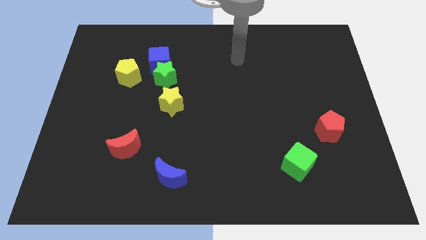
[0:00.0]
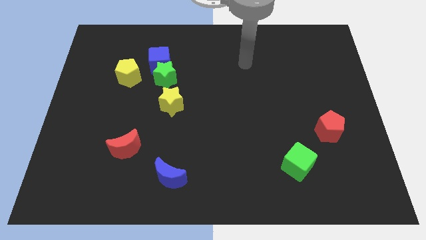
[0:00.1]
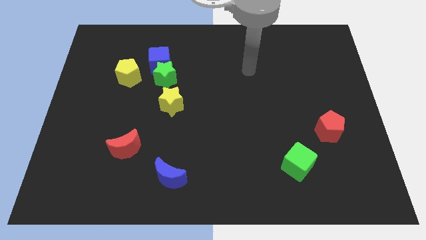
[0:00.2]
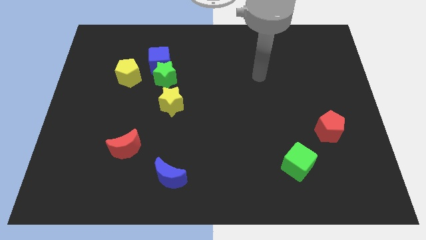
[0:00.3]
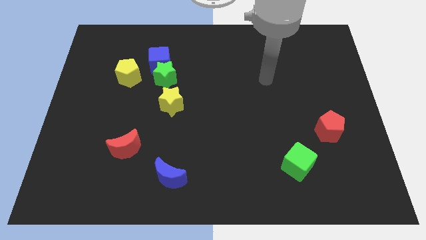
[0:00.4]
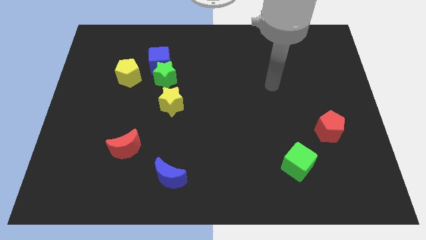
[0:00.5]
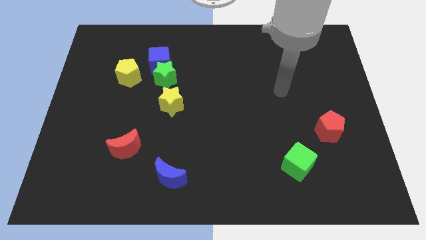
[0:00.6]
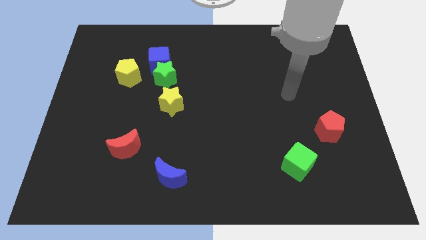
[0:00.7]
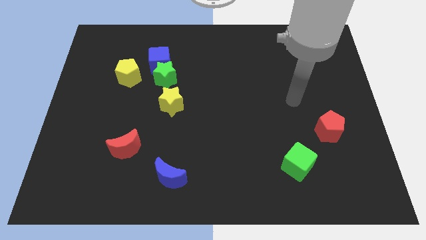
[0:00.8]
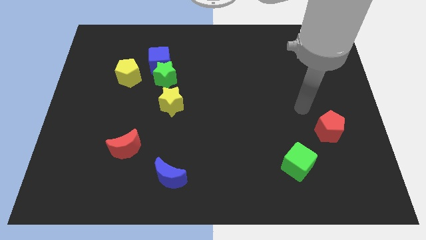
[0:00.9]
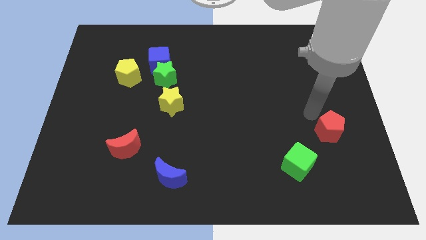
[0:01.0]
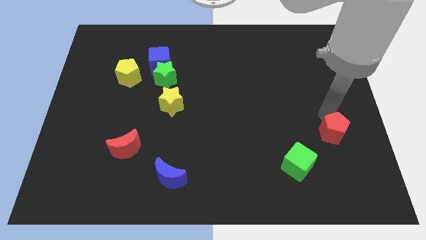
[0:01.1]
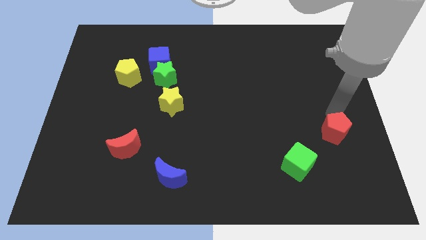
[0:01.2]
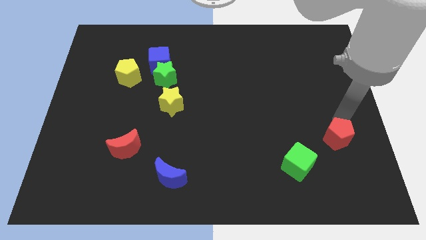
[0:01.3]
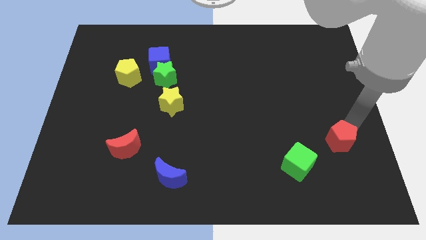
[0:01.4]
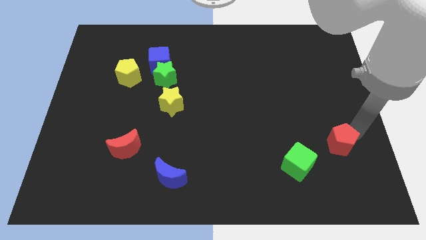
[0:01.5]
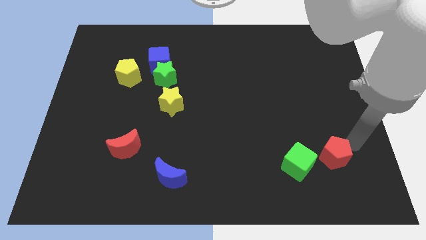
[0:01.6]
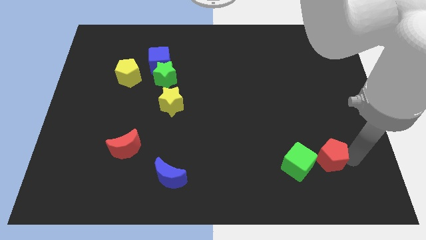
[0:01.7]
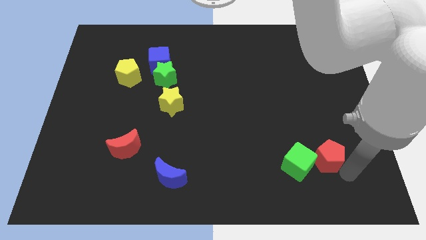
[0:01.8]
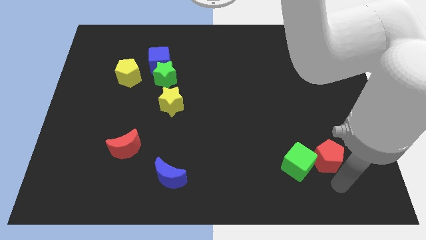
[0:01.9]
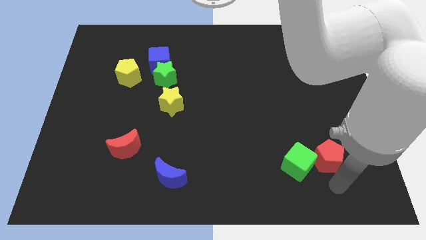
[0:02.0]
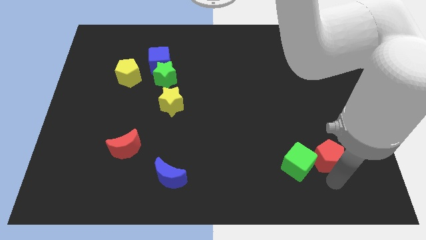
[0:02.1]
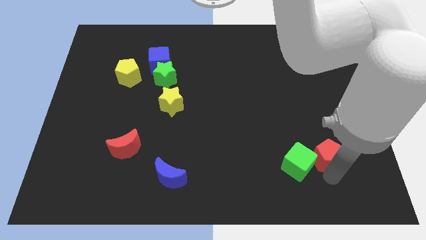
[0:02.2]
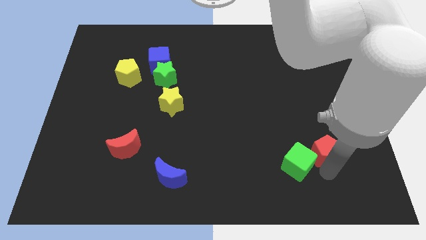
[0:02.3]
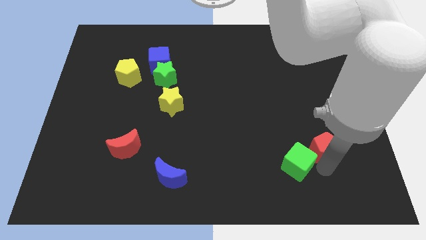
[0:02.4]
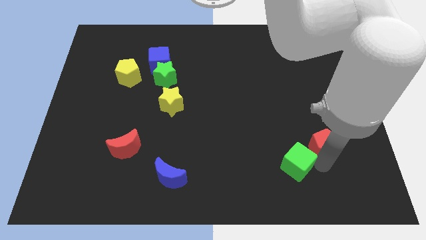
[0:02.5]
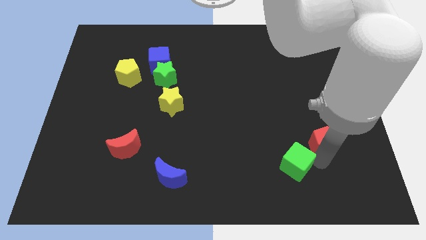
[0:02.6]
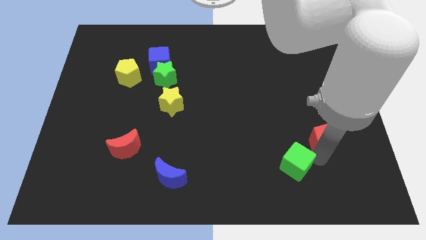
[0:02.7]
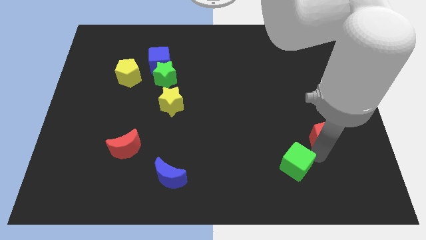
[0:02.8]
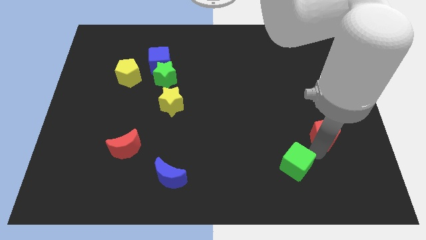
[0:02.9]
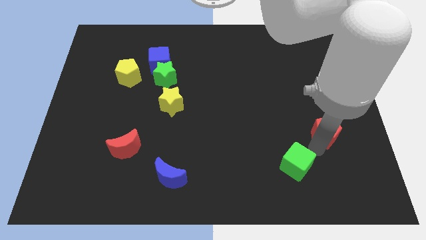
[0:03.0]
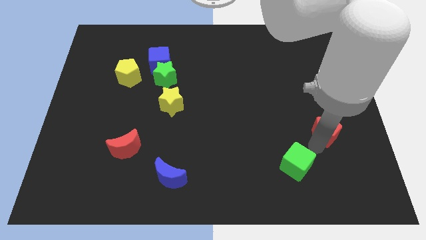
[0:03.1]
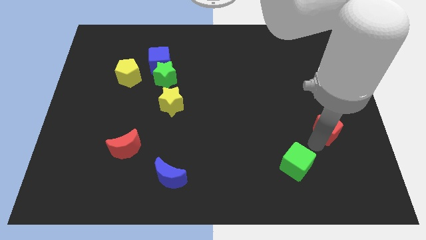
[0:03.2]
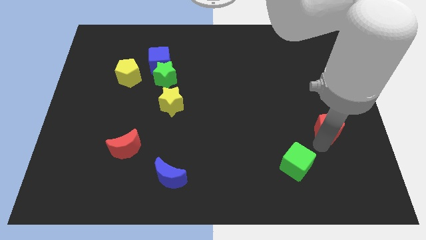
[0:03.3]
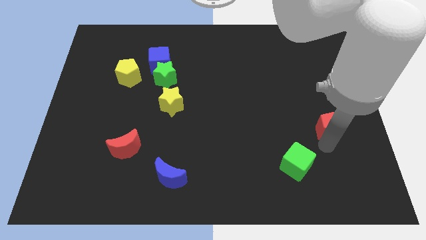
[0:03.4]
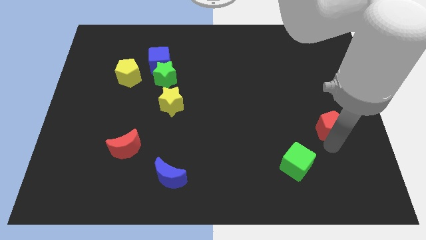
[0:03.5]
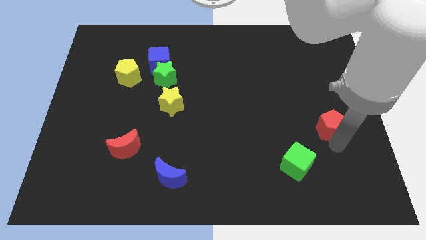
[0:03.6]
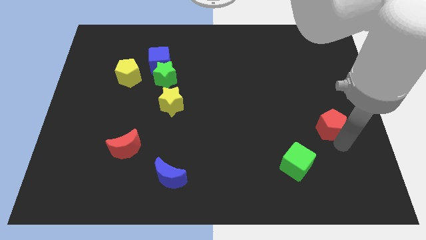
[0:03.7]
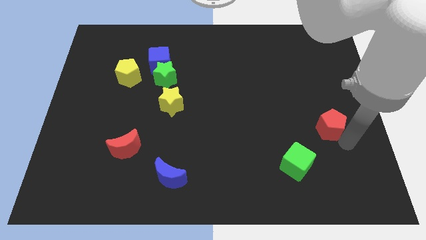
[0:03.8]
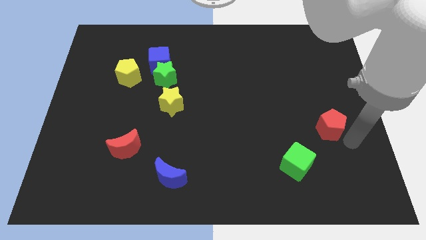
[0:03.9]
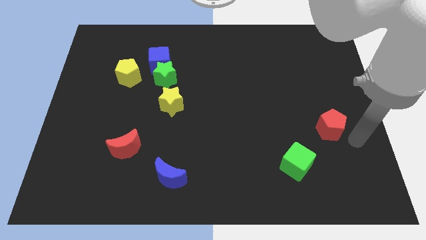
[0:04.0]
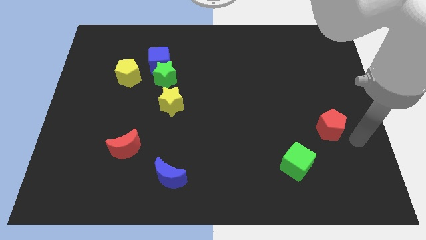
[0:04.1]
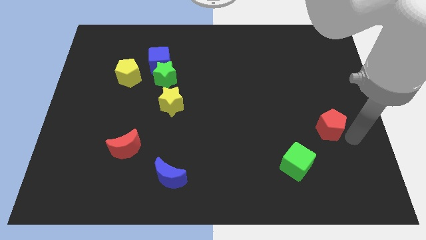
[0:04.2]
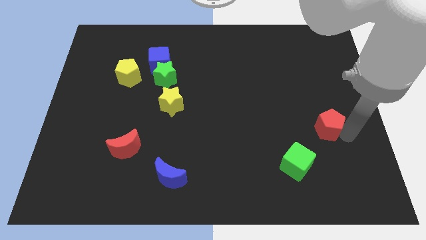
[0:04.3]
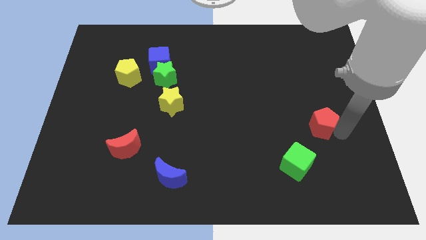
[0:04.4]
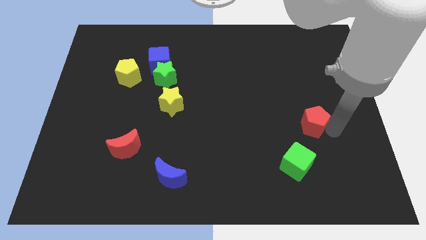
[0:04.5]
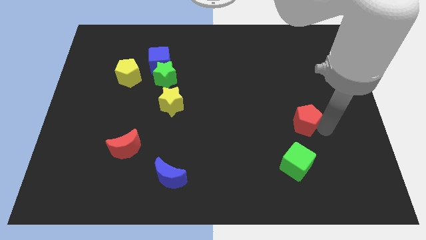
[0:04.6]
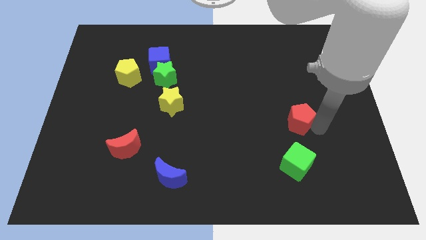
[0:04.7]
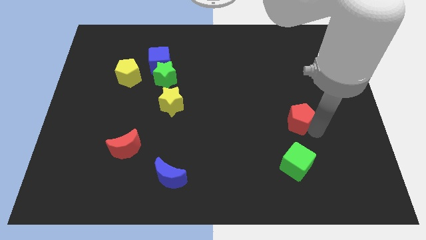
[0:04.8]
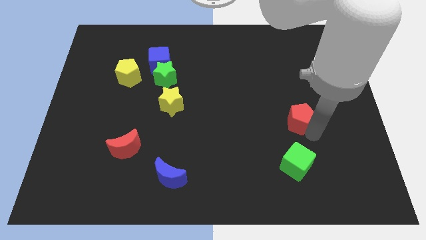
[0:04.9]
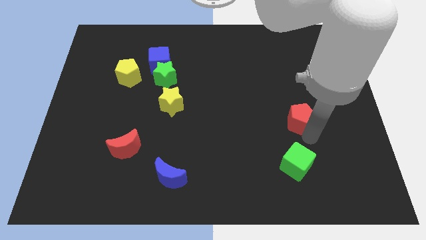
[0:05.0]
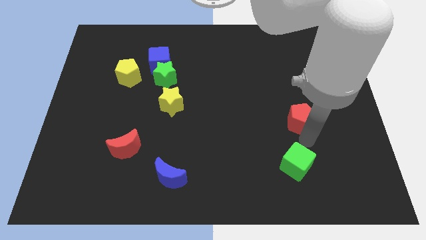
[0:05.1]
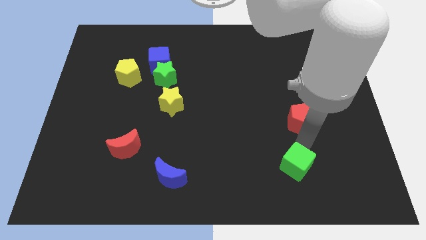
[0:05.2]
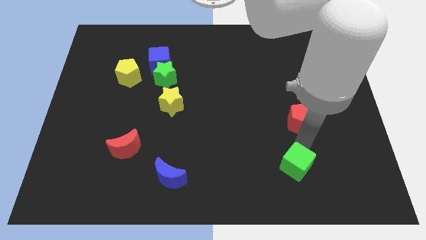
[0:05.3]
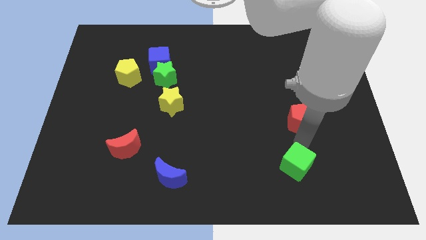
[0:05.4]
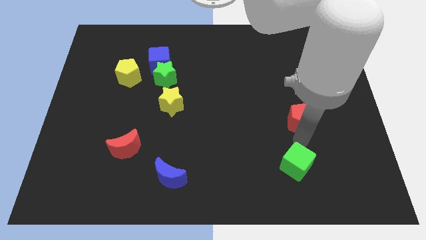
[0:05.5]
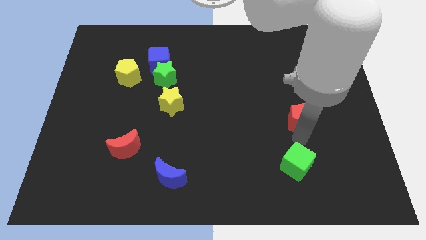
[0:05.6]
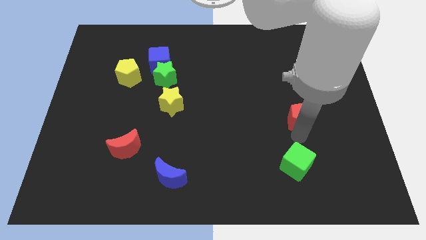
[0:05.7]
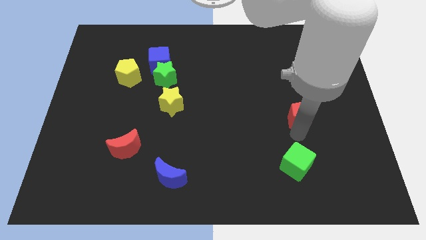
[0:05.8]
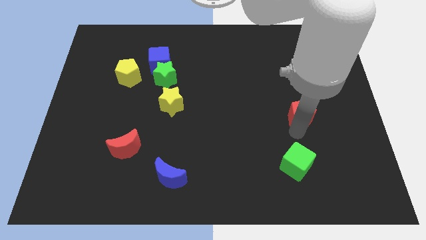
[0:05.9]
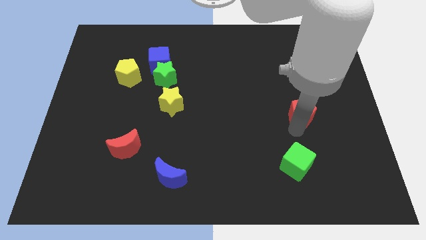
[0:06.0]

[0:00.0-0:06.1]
slightly slide the red pentagon up and then to the left

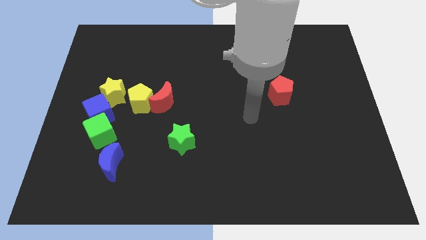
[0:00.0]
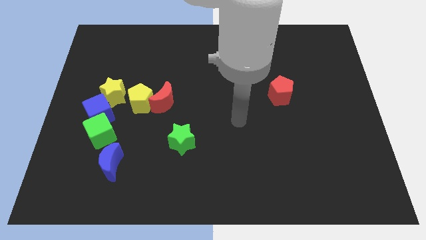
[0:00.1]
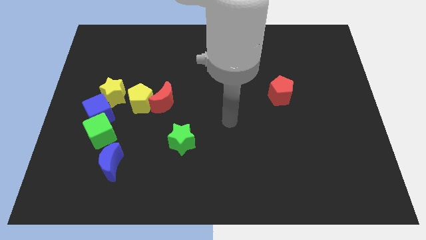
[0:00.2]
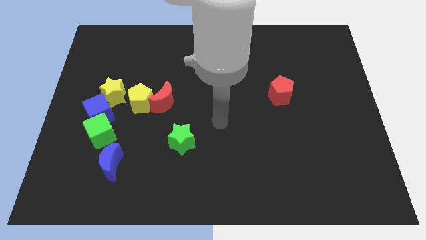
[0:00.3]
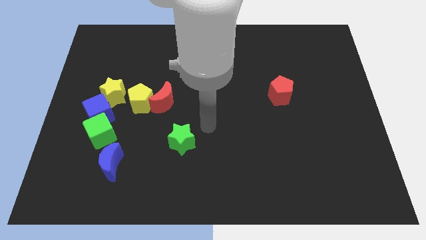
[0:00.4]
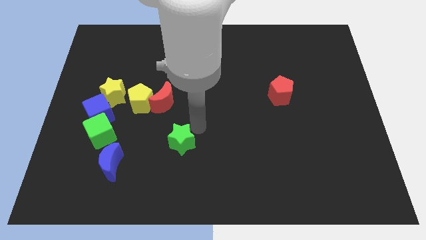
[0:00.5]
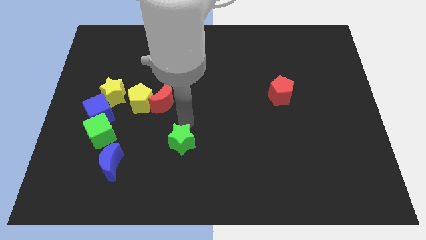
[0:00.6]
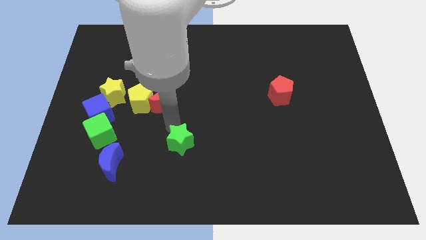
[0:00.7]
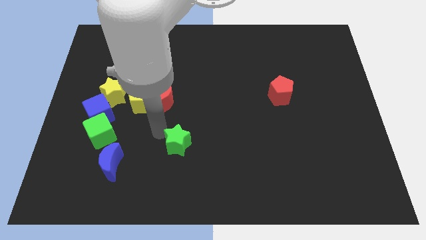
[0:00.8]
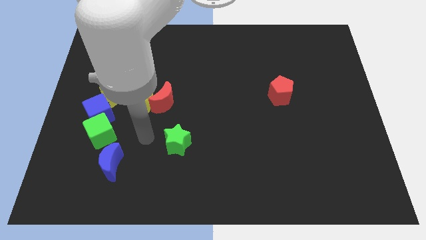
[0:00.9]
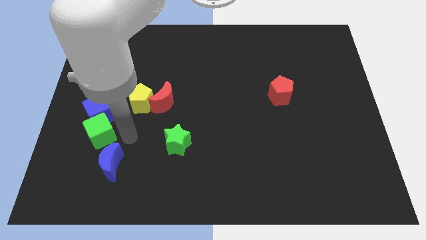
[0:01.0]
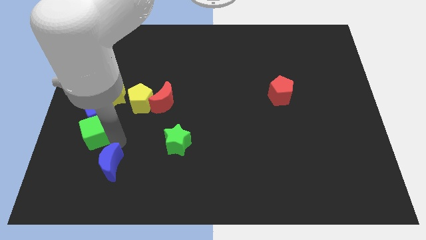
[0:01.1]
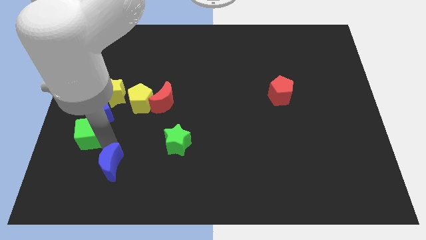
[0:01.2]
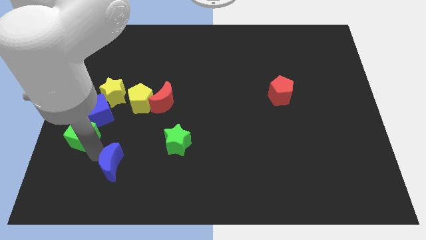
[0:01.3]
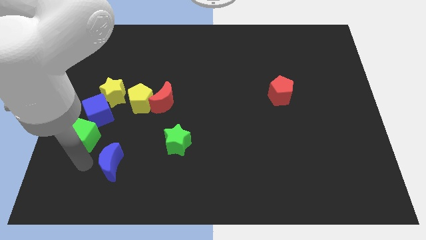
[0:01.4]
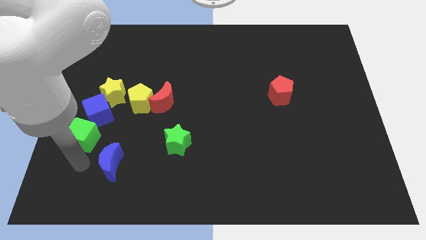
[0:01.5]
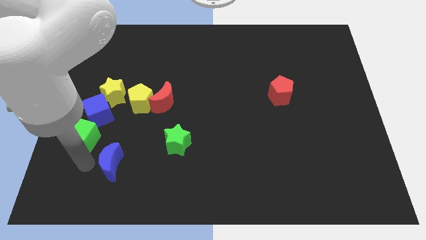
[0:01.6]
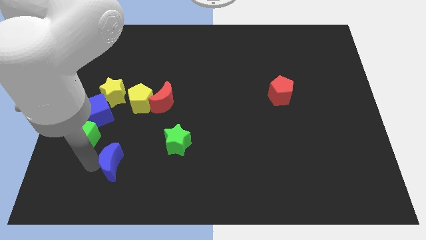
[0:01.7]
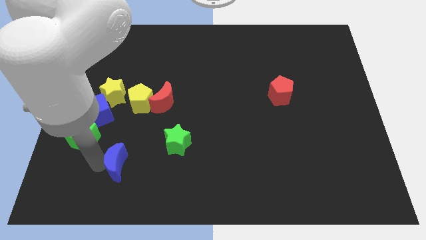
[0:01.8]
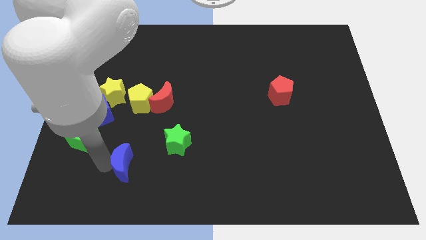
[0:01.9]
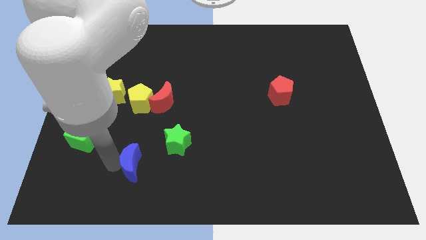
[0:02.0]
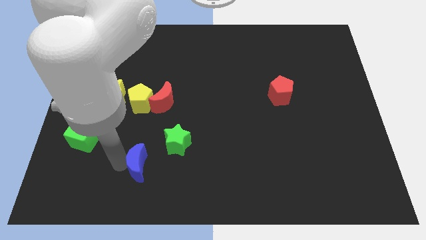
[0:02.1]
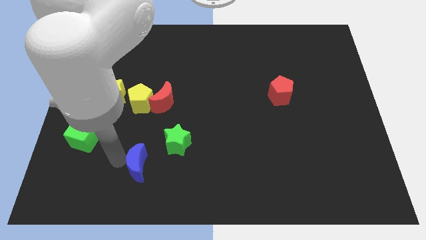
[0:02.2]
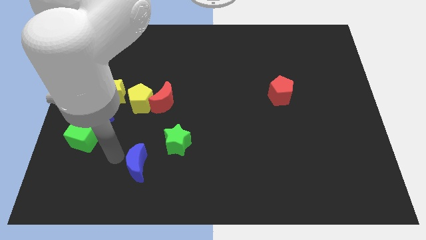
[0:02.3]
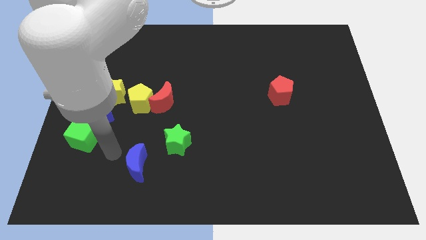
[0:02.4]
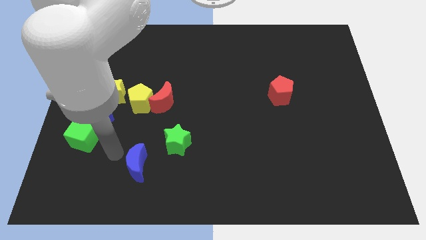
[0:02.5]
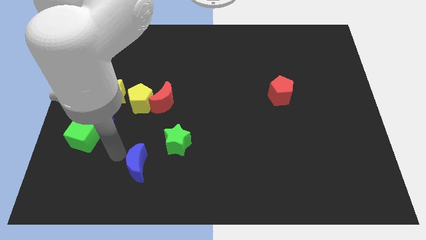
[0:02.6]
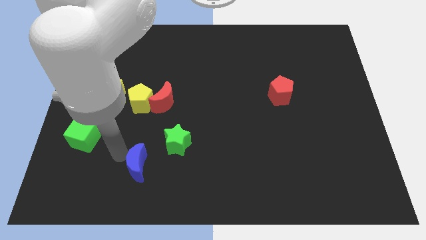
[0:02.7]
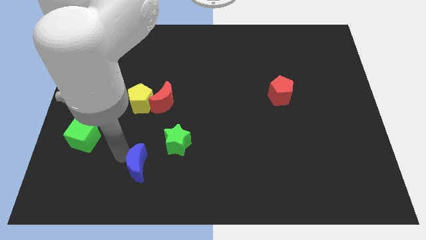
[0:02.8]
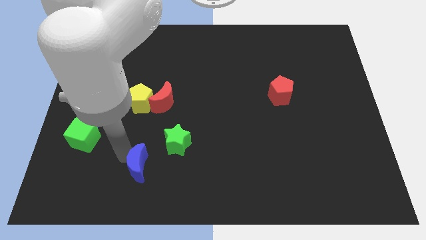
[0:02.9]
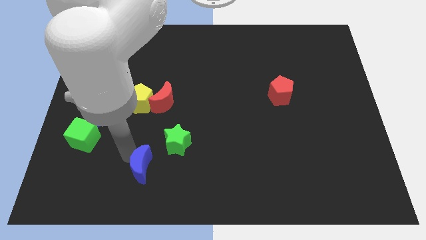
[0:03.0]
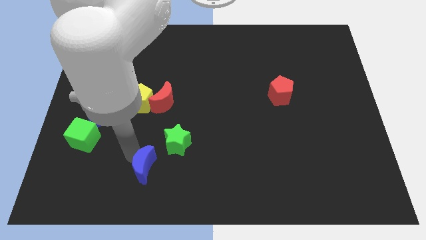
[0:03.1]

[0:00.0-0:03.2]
slightly push the blue moon right
